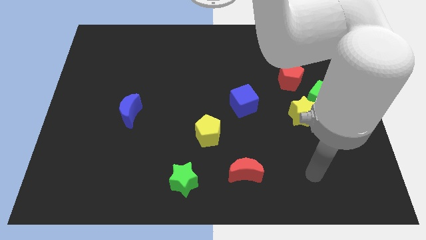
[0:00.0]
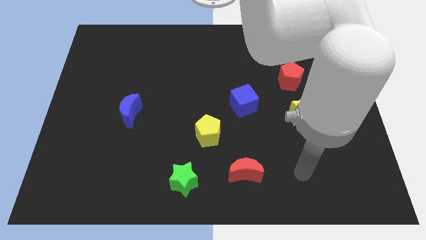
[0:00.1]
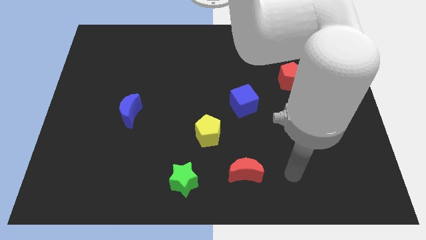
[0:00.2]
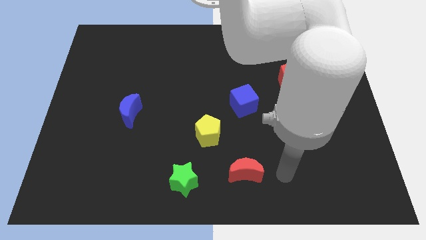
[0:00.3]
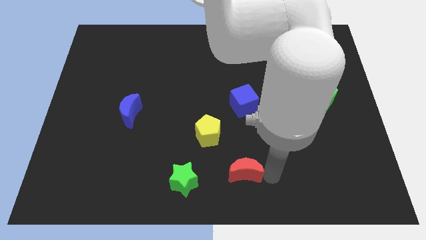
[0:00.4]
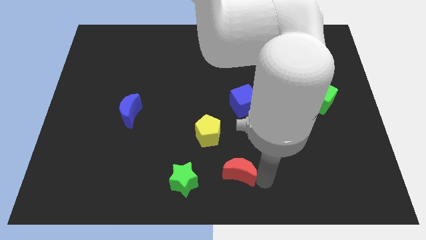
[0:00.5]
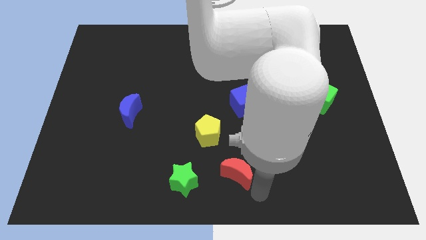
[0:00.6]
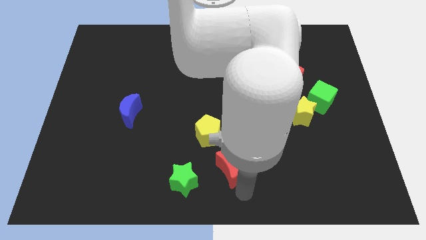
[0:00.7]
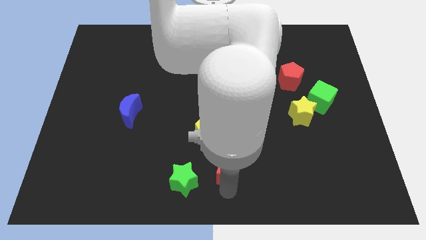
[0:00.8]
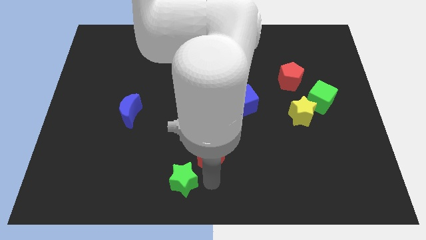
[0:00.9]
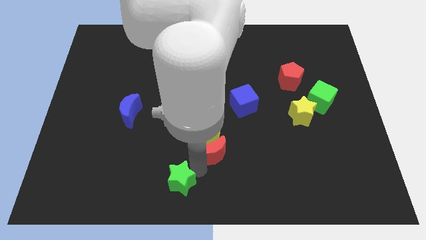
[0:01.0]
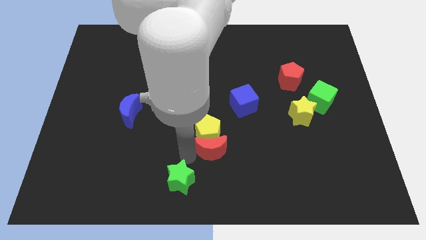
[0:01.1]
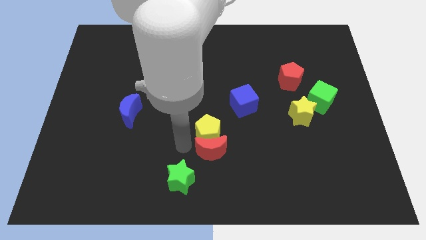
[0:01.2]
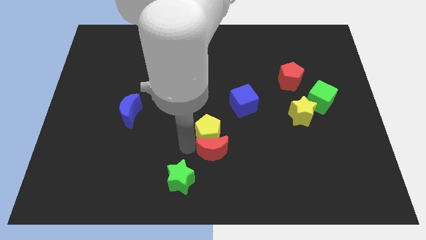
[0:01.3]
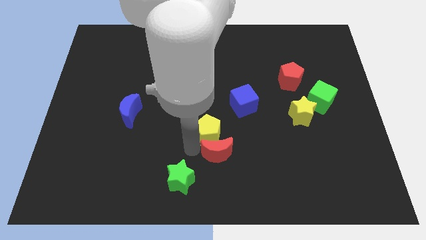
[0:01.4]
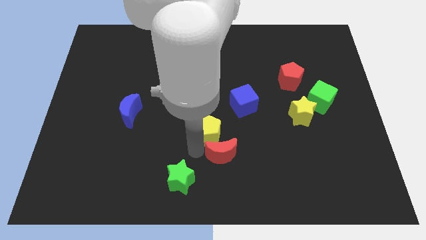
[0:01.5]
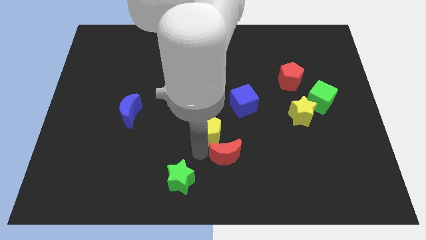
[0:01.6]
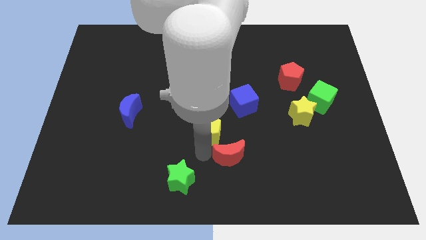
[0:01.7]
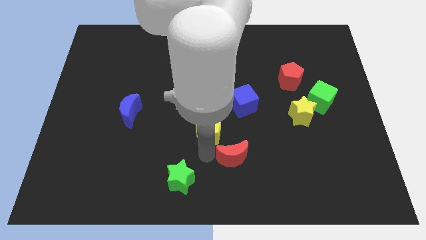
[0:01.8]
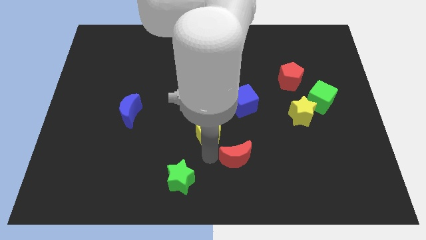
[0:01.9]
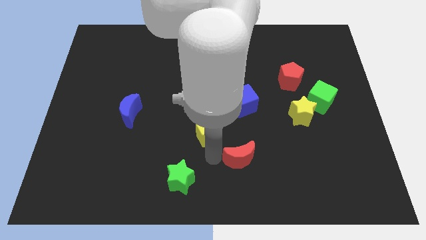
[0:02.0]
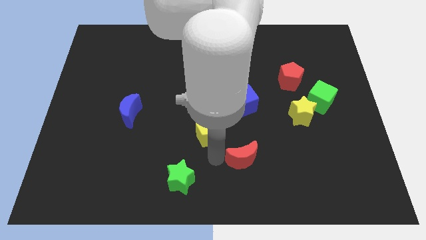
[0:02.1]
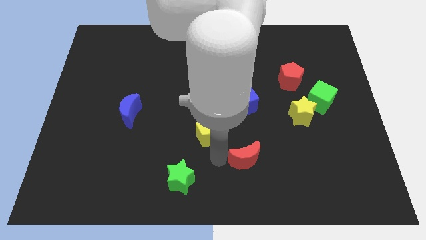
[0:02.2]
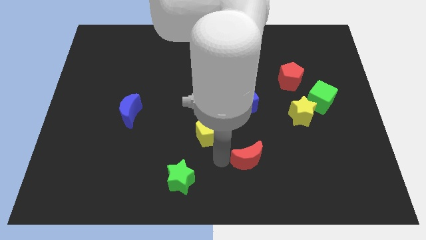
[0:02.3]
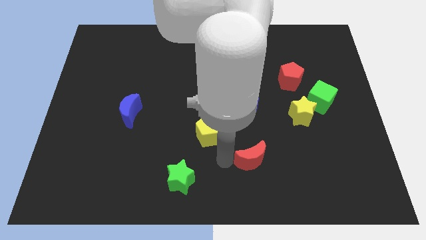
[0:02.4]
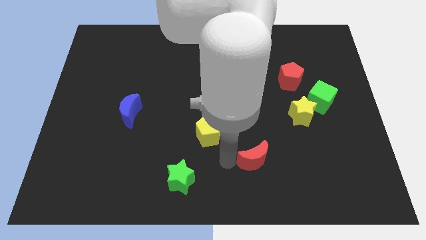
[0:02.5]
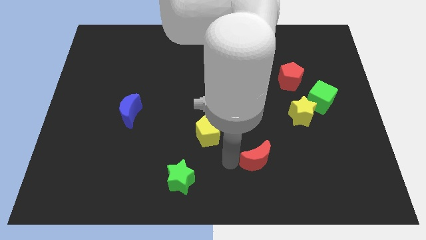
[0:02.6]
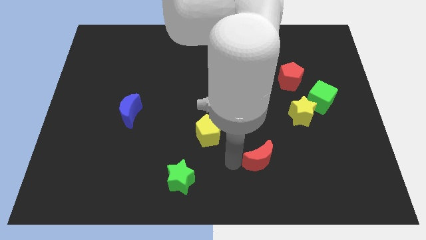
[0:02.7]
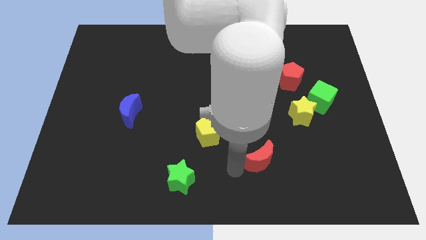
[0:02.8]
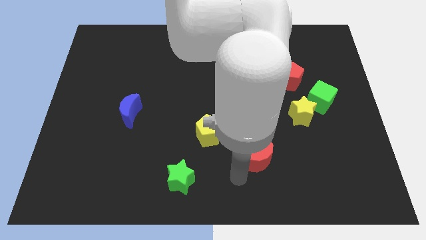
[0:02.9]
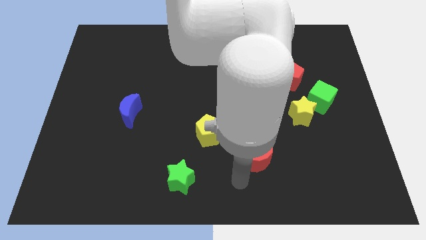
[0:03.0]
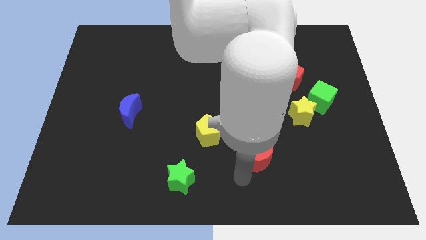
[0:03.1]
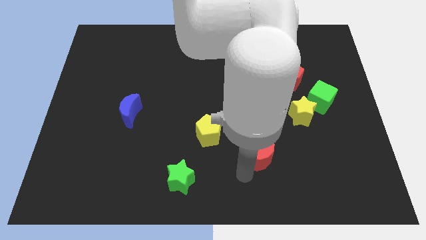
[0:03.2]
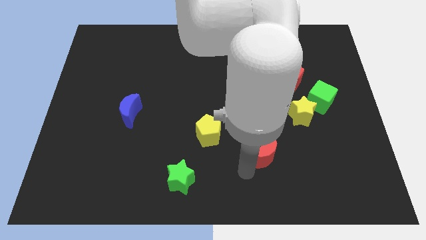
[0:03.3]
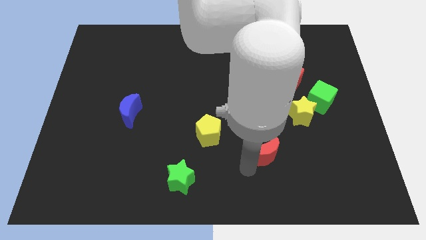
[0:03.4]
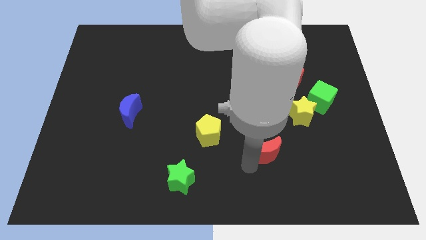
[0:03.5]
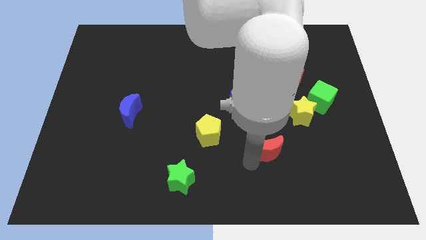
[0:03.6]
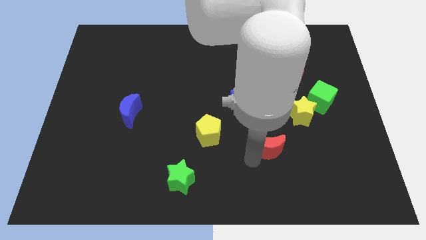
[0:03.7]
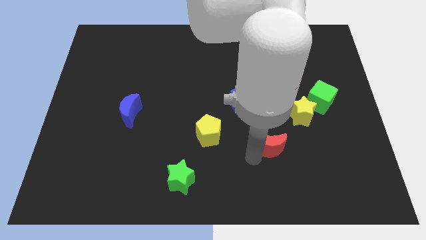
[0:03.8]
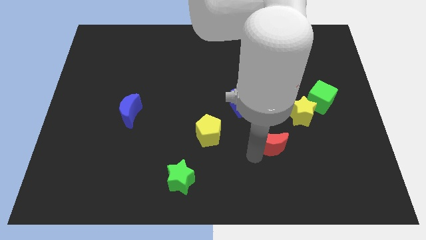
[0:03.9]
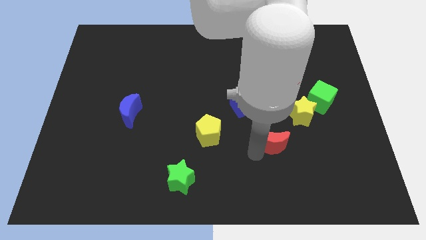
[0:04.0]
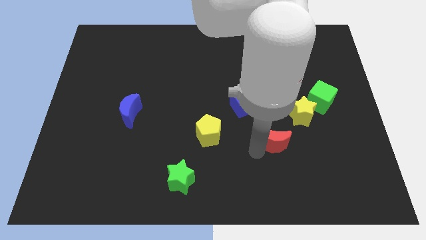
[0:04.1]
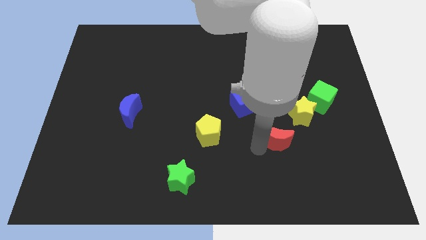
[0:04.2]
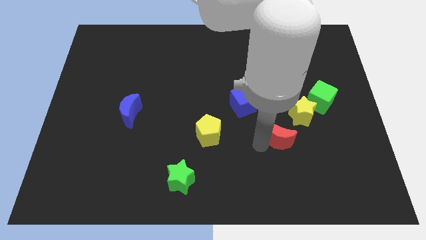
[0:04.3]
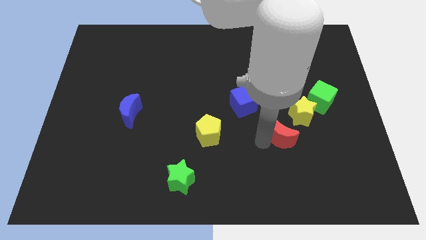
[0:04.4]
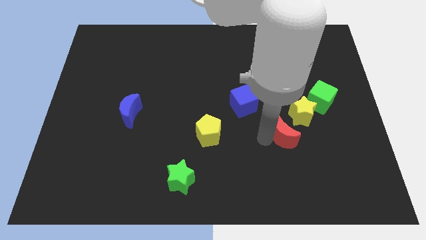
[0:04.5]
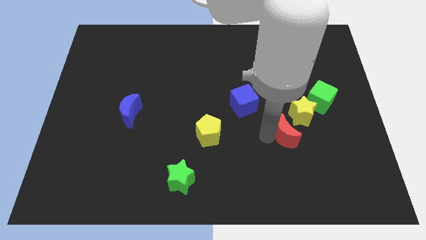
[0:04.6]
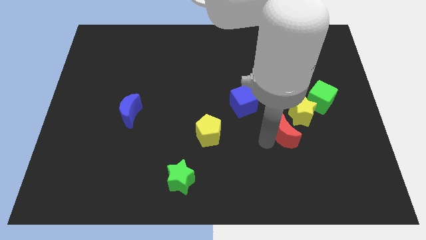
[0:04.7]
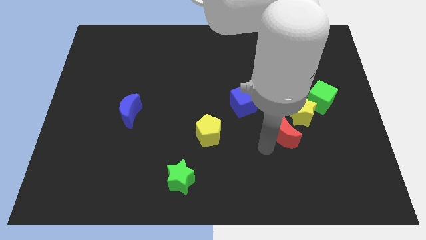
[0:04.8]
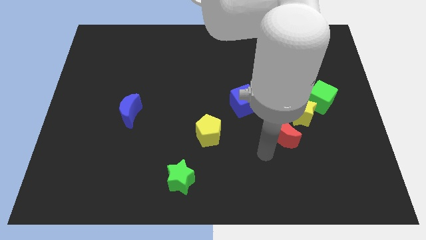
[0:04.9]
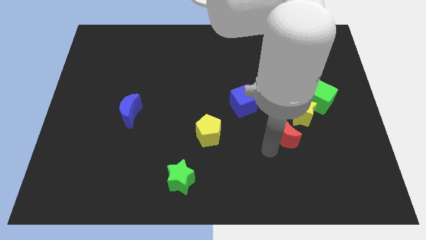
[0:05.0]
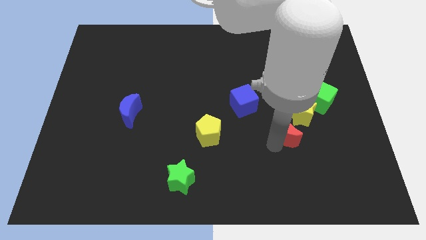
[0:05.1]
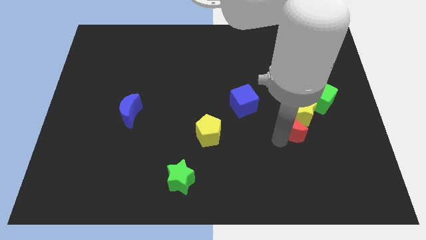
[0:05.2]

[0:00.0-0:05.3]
move the red moon to the bottom left side of the green cube

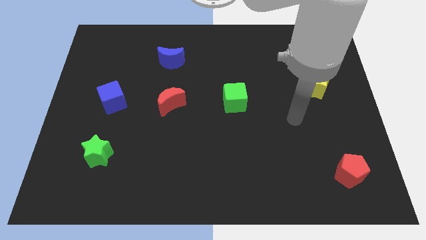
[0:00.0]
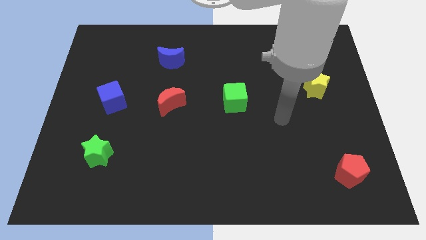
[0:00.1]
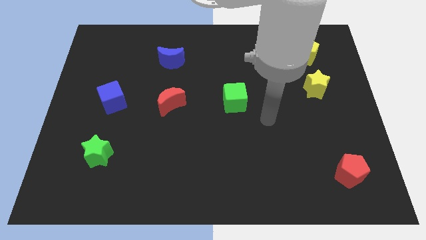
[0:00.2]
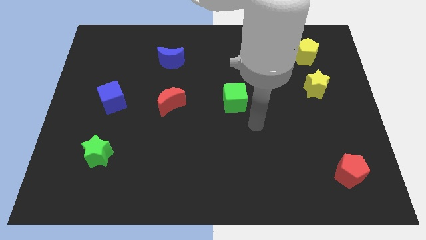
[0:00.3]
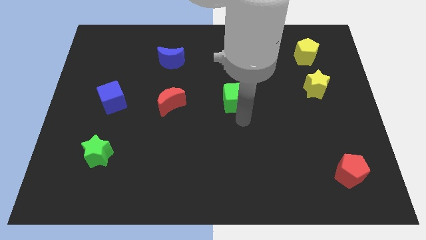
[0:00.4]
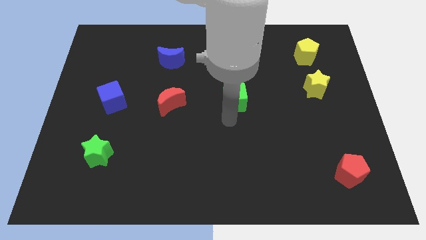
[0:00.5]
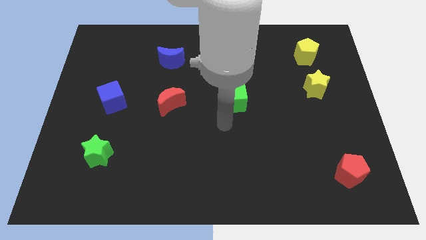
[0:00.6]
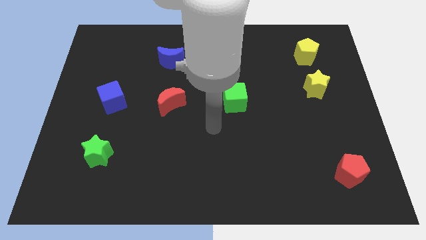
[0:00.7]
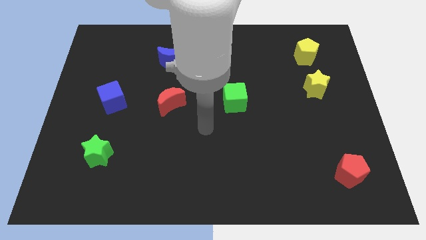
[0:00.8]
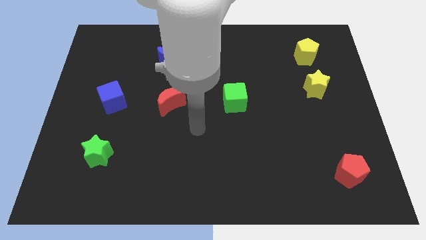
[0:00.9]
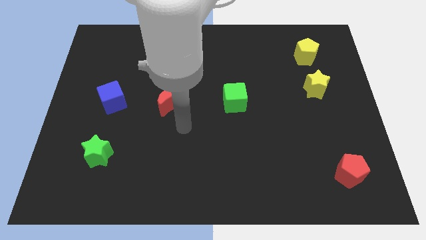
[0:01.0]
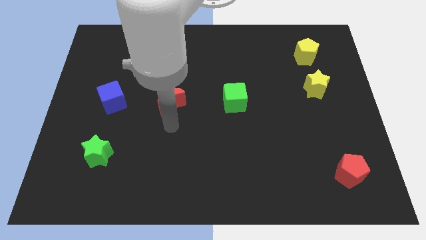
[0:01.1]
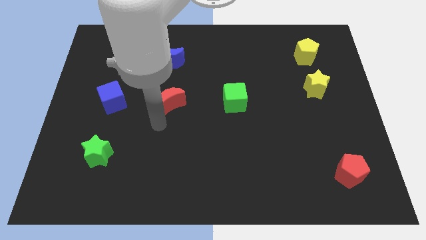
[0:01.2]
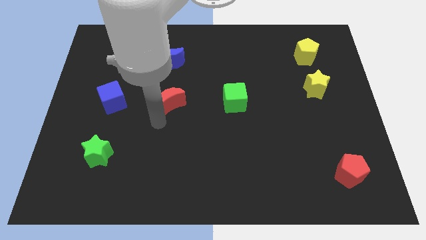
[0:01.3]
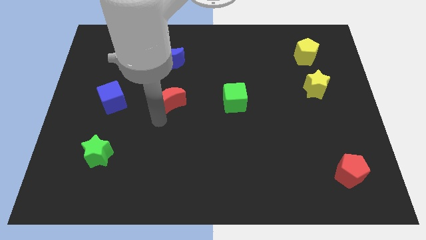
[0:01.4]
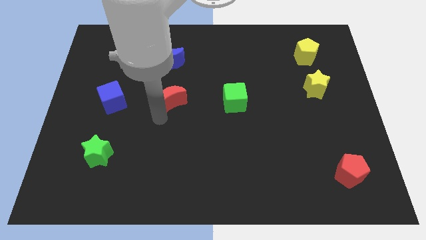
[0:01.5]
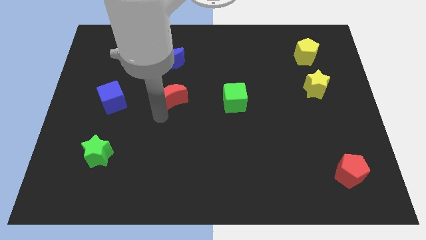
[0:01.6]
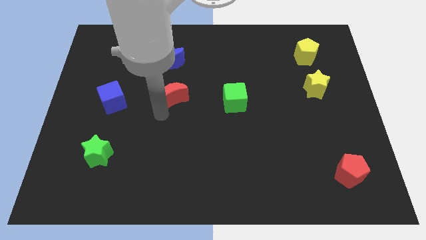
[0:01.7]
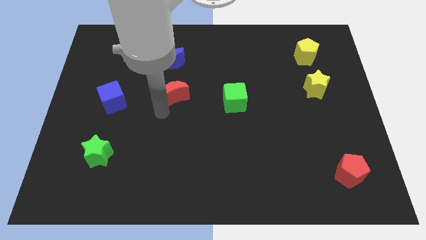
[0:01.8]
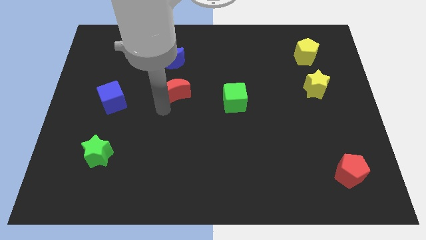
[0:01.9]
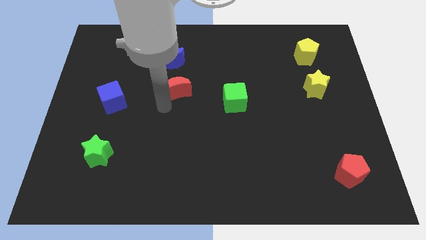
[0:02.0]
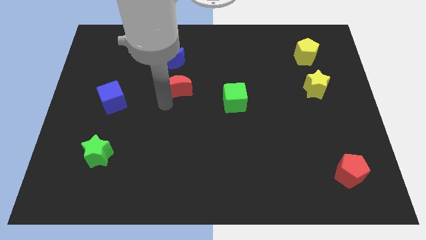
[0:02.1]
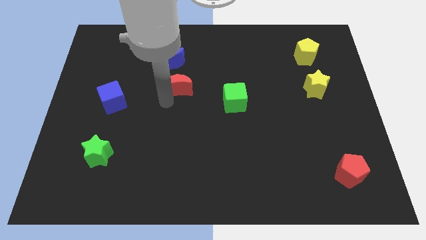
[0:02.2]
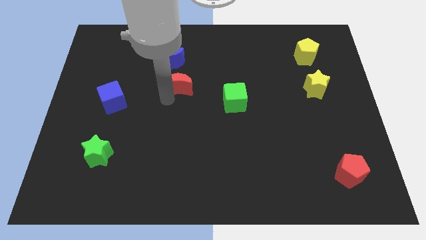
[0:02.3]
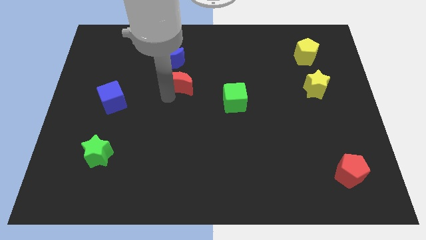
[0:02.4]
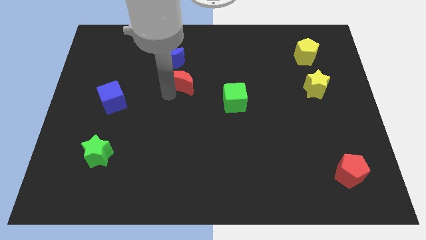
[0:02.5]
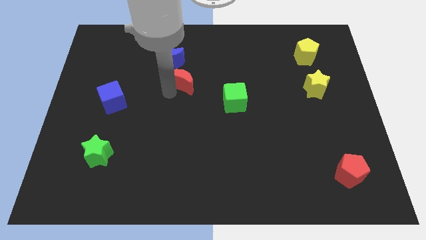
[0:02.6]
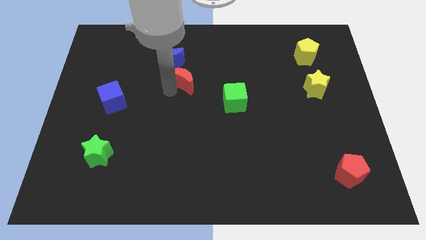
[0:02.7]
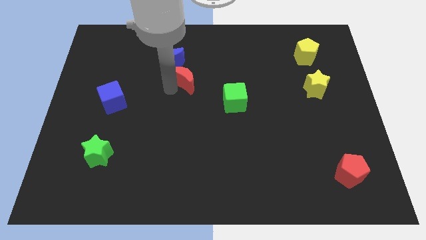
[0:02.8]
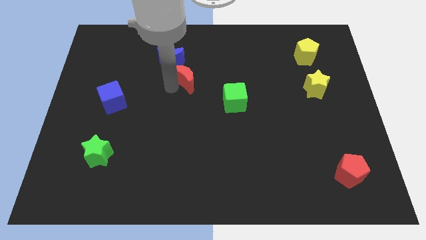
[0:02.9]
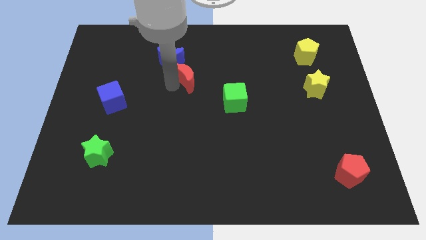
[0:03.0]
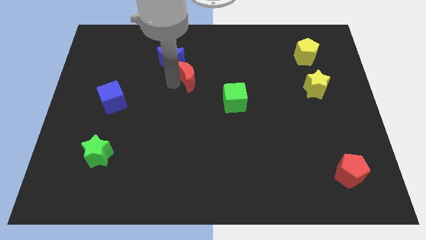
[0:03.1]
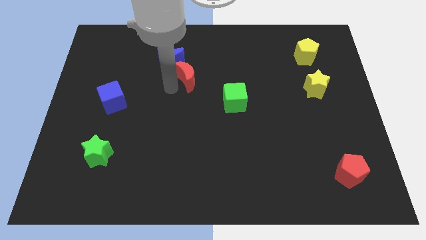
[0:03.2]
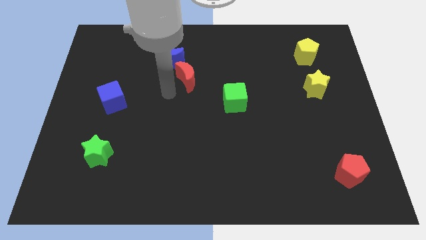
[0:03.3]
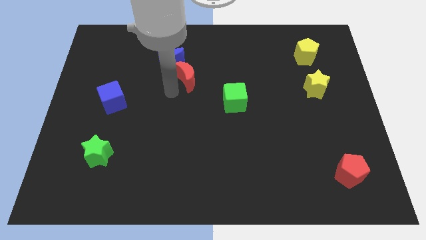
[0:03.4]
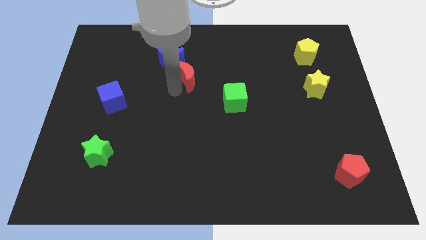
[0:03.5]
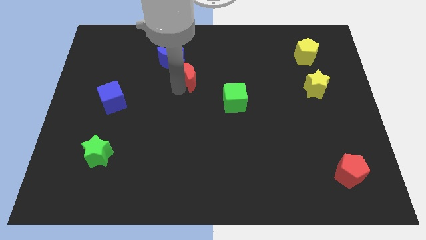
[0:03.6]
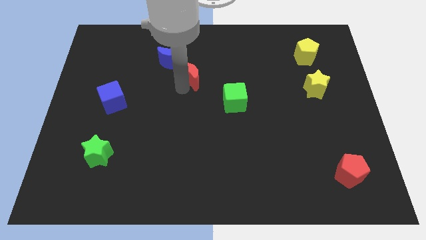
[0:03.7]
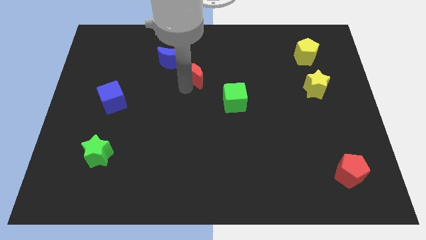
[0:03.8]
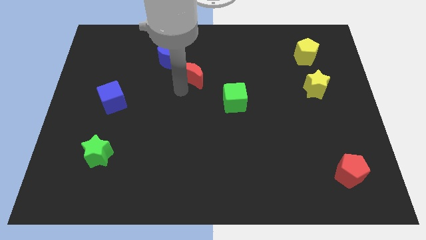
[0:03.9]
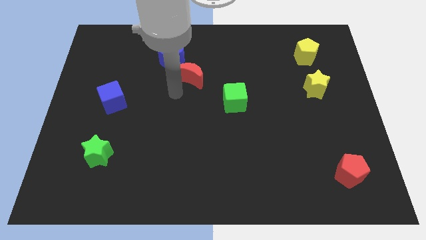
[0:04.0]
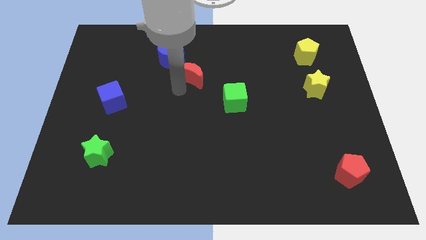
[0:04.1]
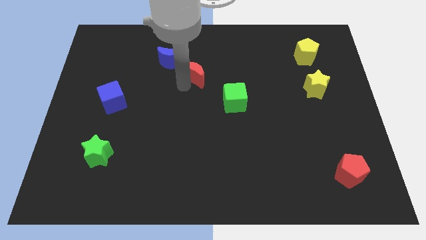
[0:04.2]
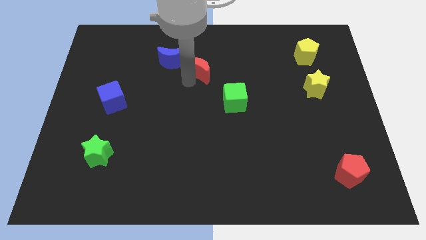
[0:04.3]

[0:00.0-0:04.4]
slide the red moon to the right side of the blue moon
